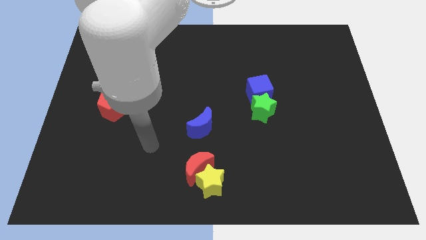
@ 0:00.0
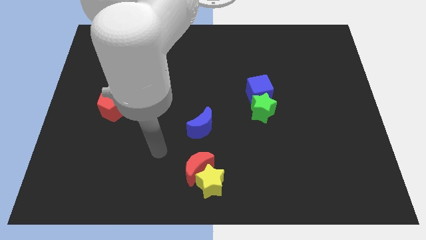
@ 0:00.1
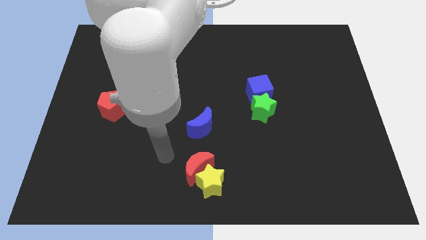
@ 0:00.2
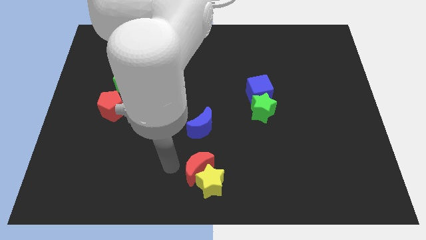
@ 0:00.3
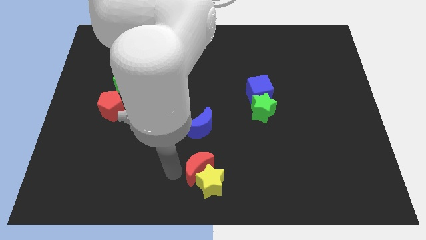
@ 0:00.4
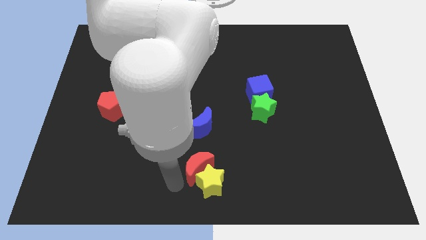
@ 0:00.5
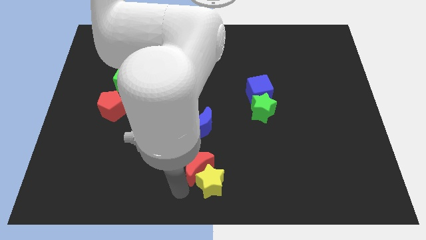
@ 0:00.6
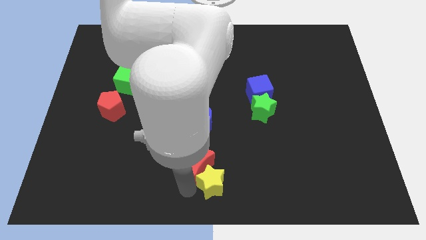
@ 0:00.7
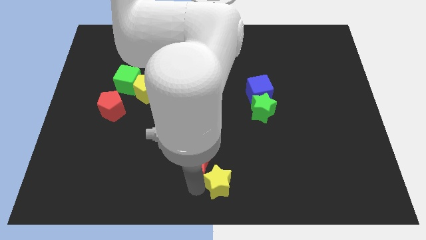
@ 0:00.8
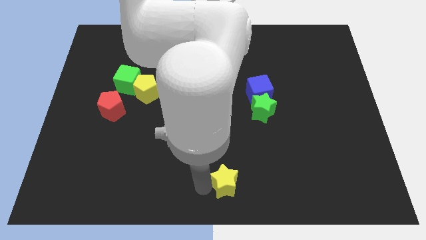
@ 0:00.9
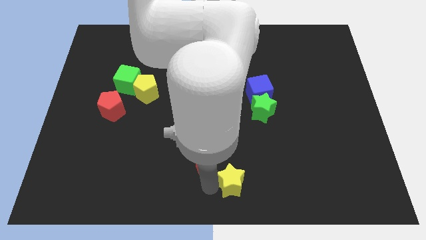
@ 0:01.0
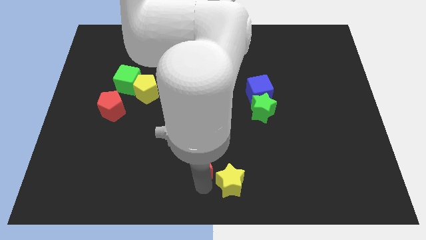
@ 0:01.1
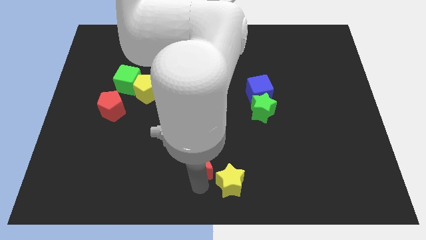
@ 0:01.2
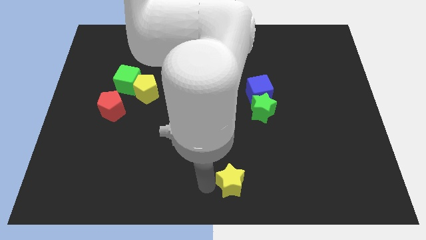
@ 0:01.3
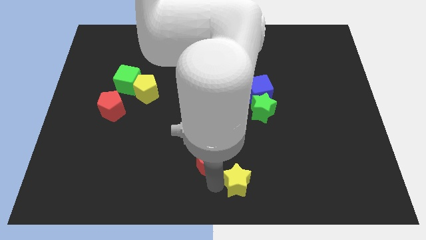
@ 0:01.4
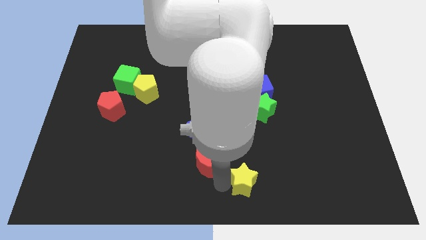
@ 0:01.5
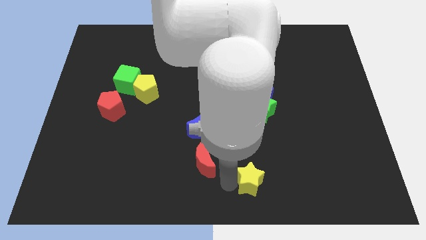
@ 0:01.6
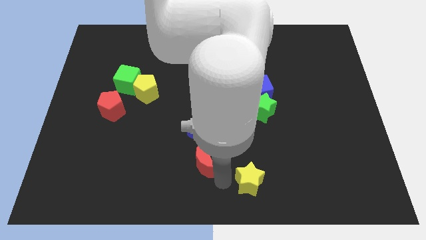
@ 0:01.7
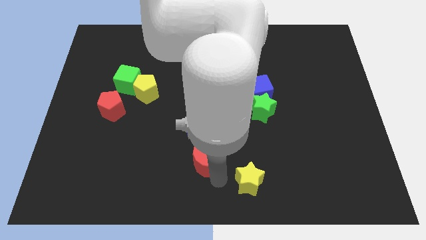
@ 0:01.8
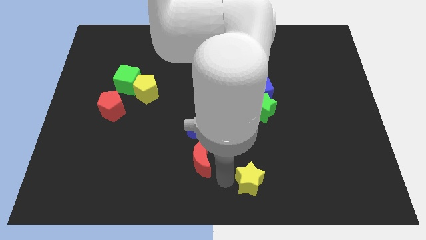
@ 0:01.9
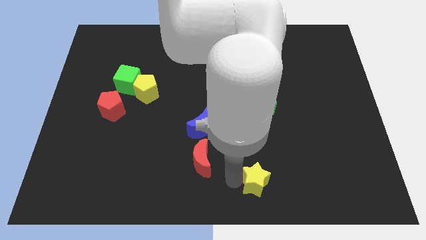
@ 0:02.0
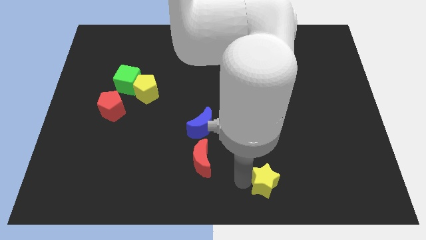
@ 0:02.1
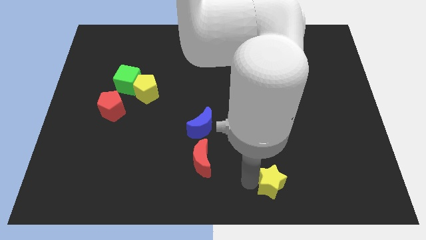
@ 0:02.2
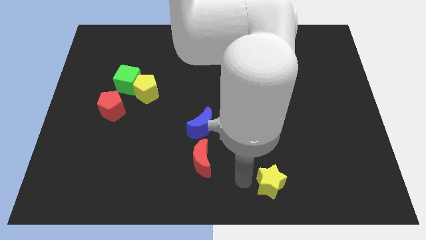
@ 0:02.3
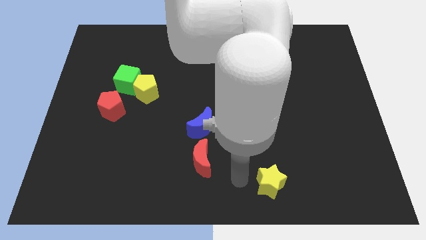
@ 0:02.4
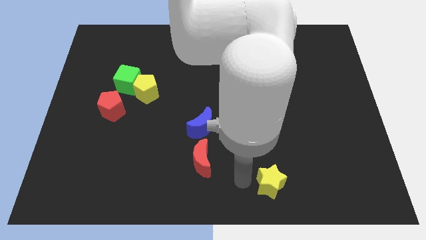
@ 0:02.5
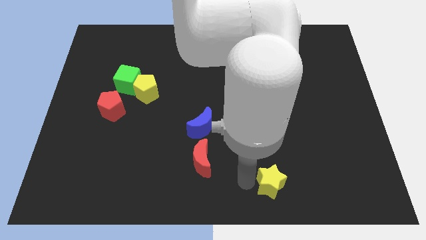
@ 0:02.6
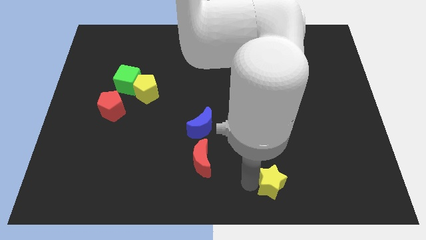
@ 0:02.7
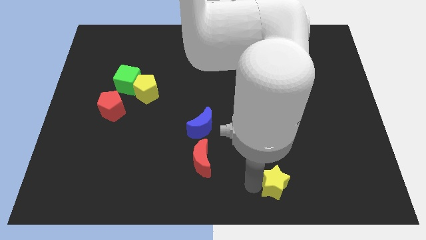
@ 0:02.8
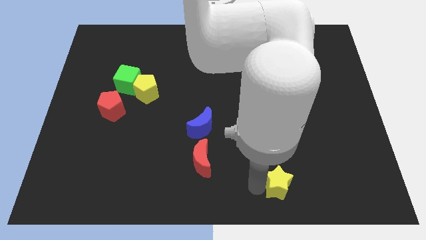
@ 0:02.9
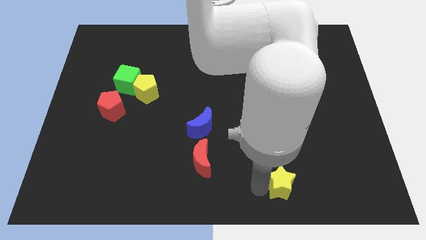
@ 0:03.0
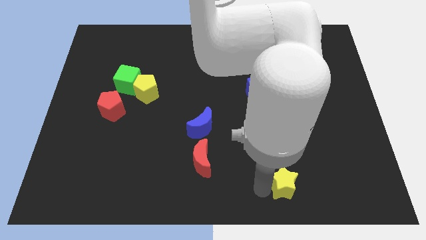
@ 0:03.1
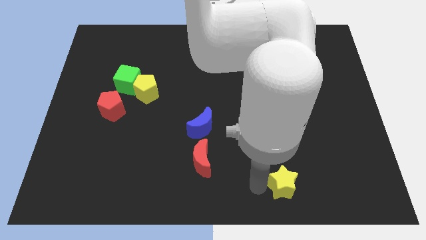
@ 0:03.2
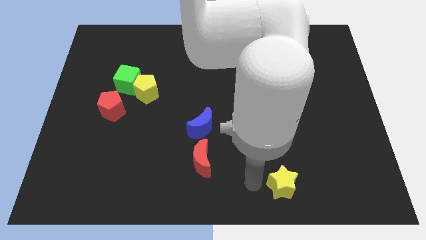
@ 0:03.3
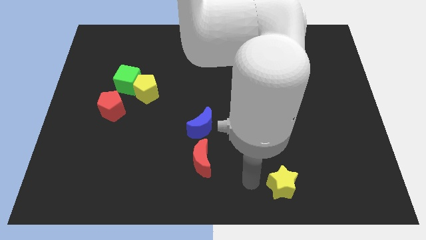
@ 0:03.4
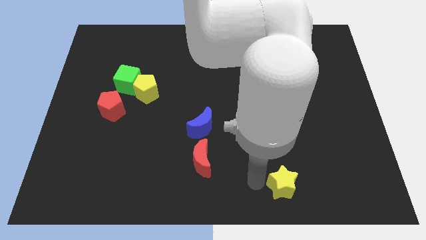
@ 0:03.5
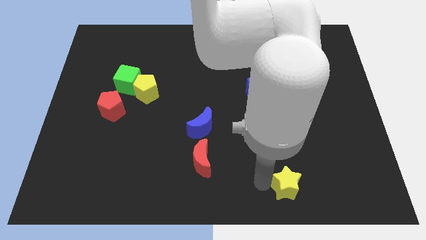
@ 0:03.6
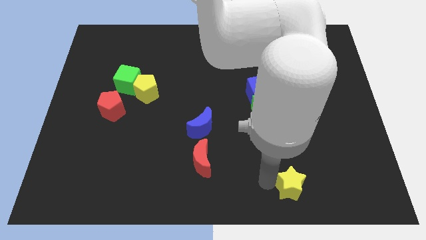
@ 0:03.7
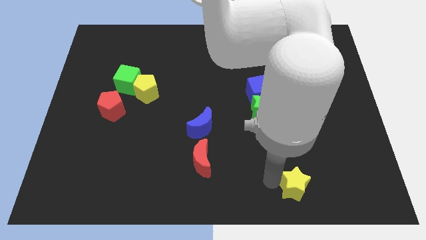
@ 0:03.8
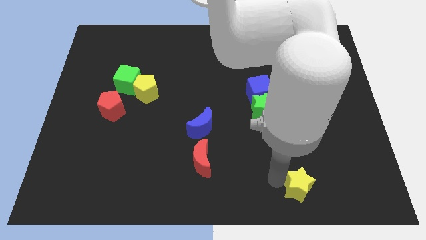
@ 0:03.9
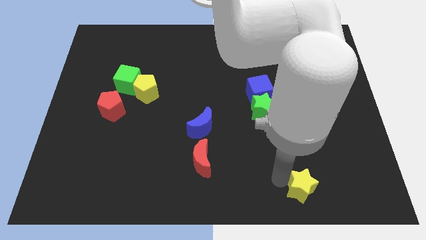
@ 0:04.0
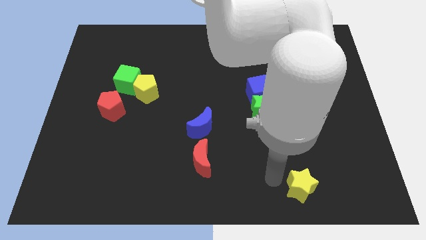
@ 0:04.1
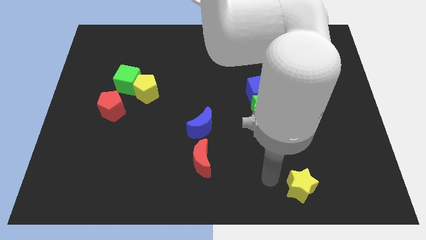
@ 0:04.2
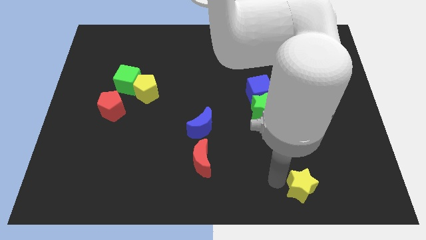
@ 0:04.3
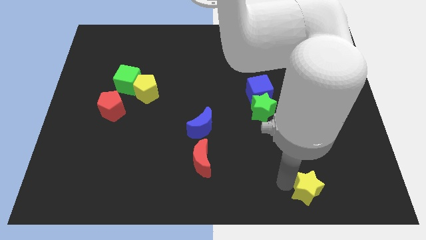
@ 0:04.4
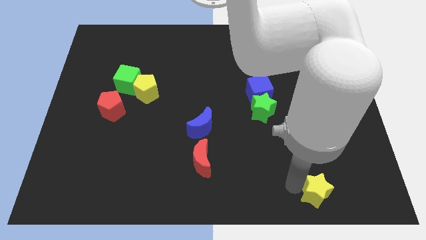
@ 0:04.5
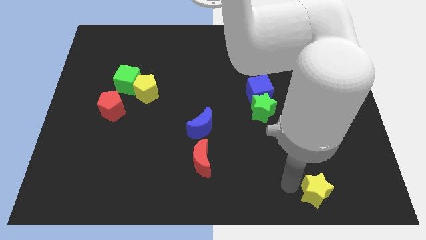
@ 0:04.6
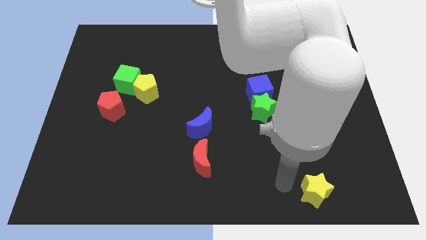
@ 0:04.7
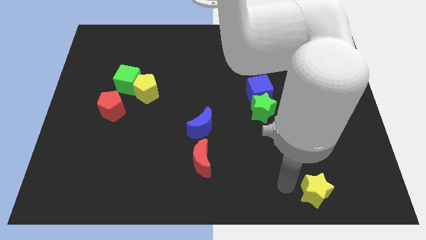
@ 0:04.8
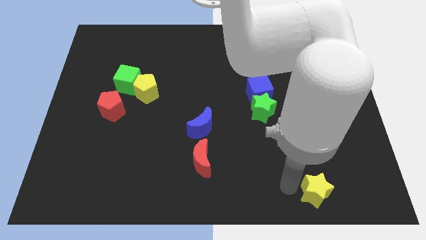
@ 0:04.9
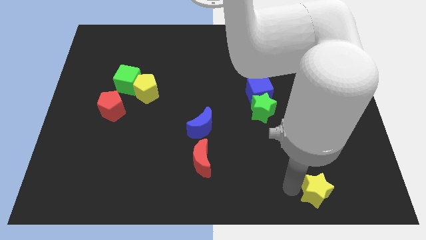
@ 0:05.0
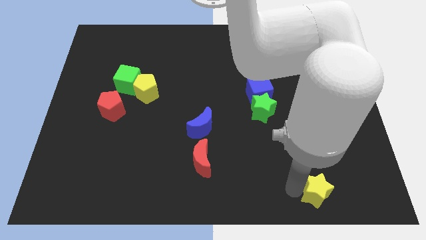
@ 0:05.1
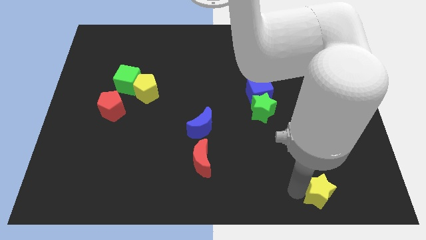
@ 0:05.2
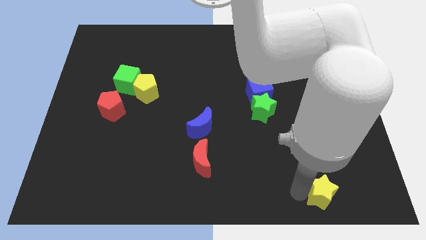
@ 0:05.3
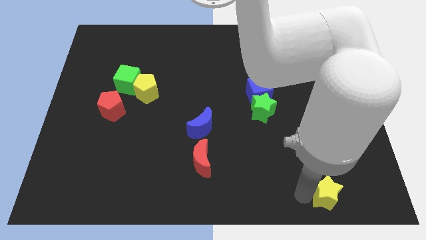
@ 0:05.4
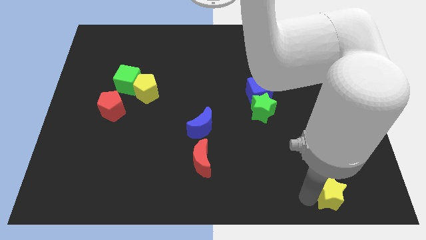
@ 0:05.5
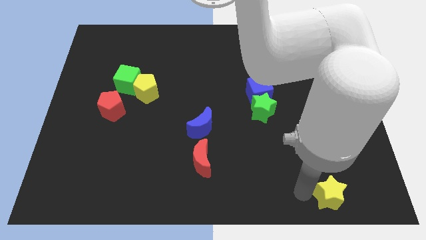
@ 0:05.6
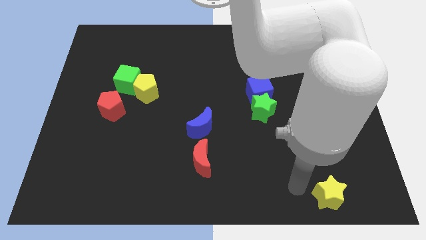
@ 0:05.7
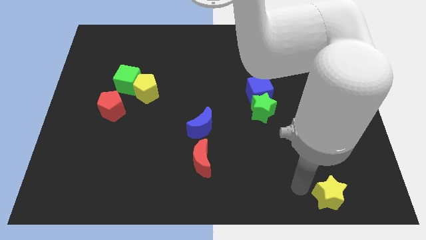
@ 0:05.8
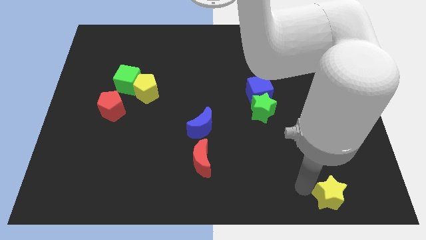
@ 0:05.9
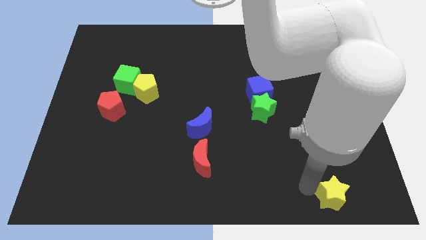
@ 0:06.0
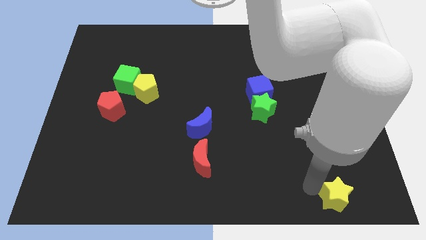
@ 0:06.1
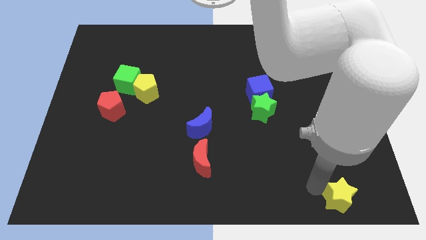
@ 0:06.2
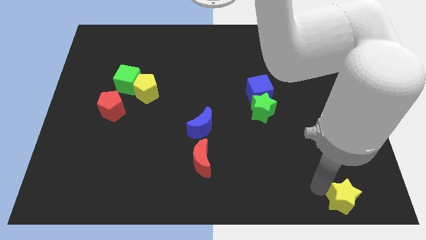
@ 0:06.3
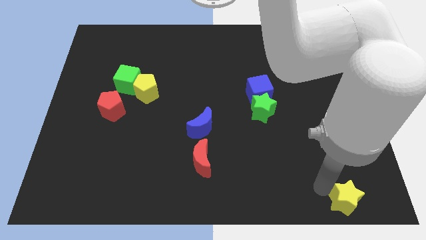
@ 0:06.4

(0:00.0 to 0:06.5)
push the yellow star to the bottom right of the board
